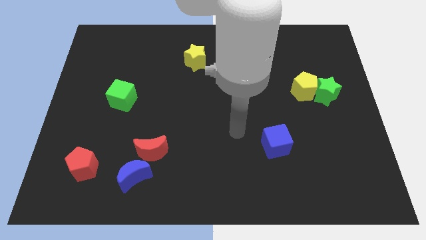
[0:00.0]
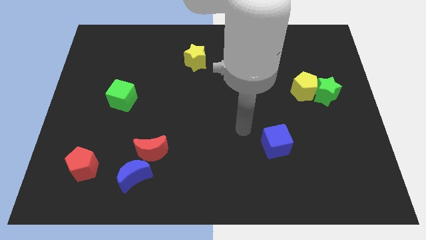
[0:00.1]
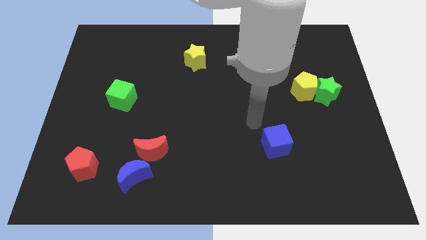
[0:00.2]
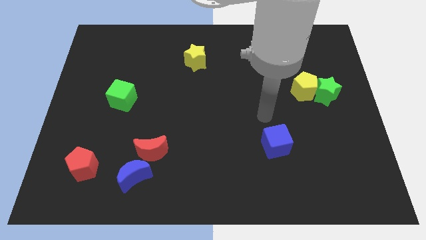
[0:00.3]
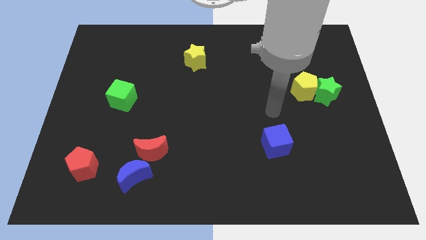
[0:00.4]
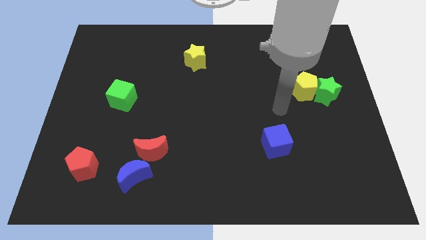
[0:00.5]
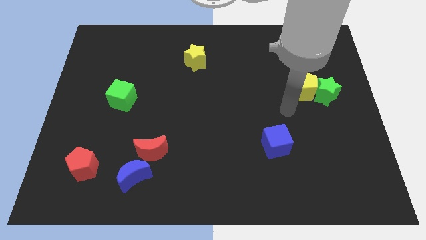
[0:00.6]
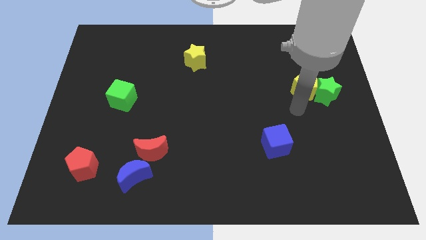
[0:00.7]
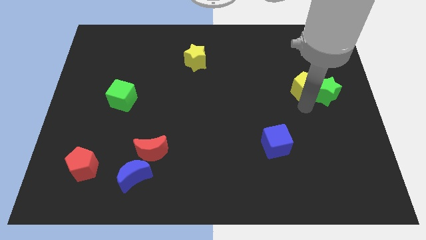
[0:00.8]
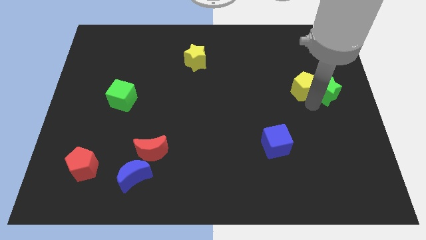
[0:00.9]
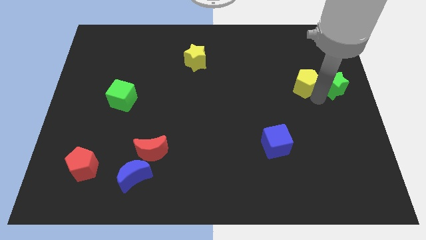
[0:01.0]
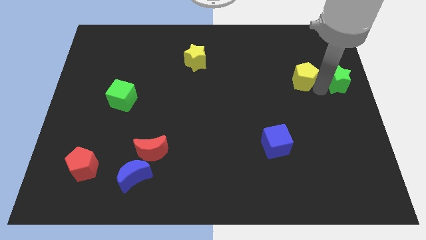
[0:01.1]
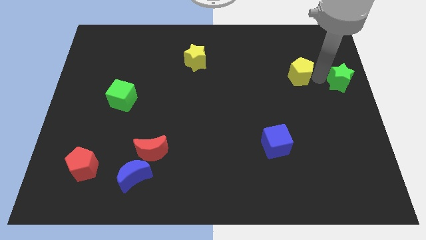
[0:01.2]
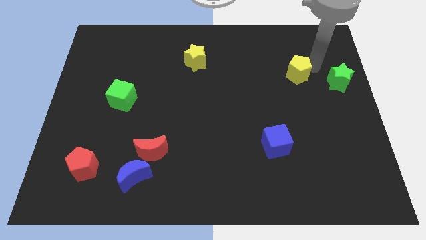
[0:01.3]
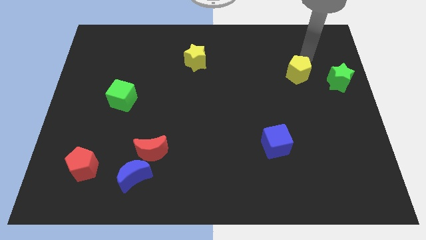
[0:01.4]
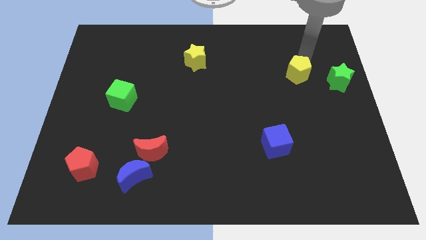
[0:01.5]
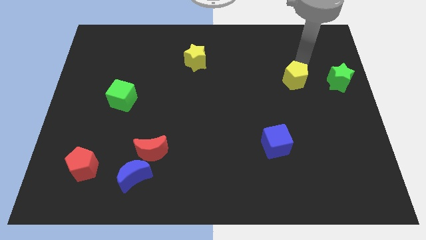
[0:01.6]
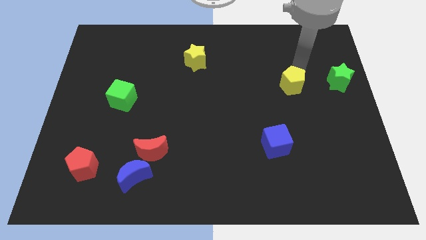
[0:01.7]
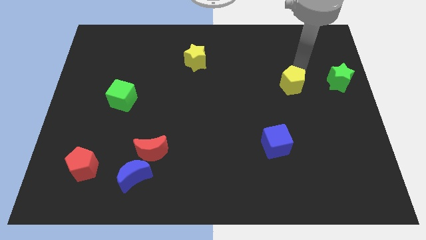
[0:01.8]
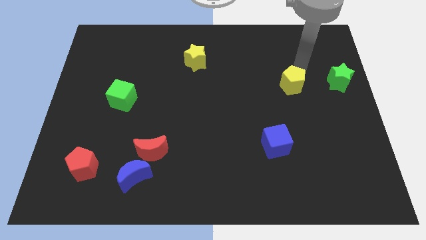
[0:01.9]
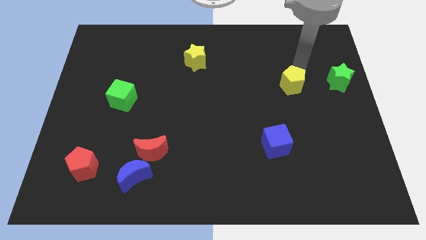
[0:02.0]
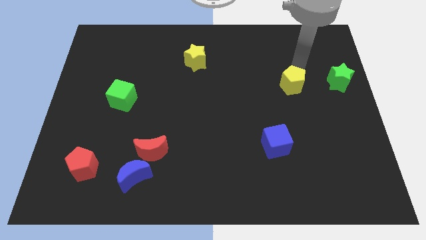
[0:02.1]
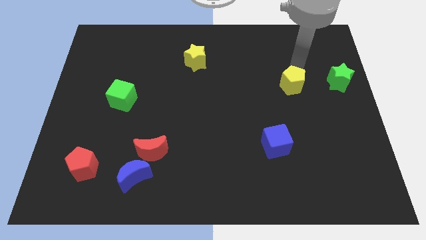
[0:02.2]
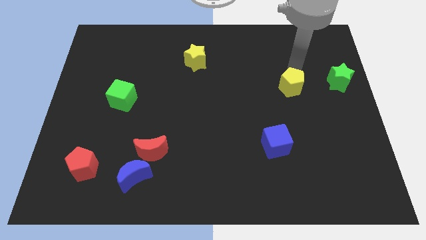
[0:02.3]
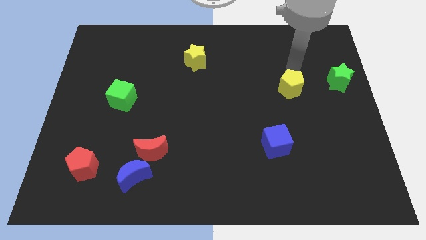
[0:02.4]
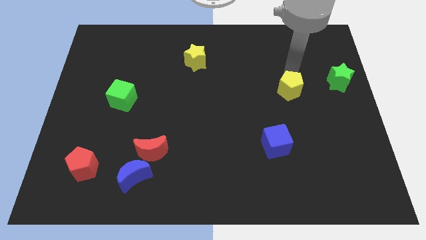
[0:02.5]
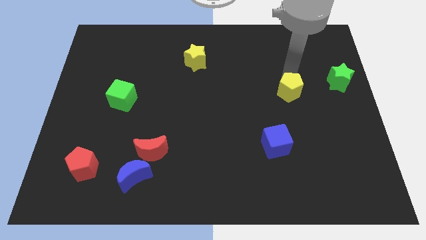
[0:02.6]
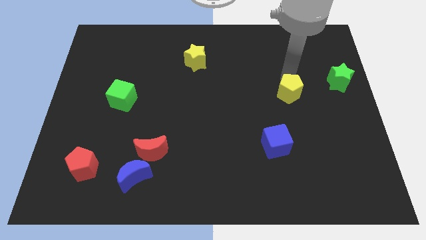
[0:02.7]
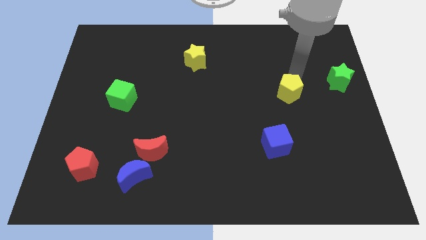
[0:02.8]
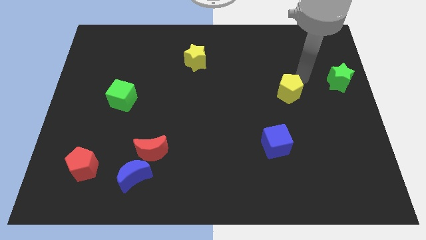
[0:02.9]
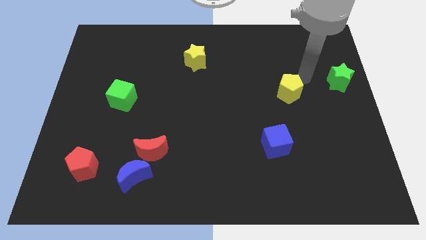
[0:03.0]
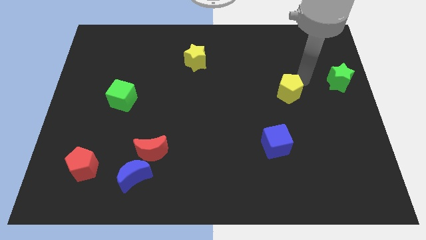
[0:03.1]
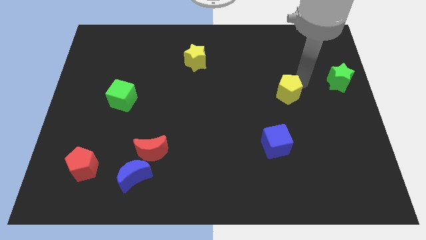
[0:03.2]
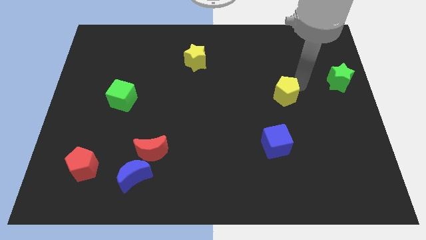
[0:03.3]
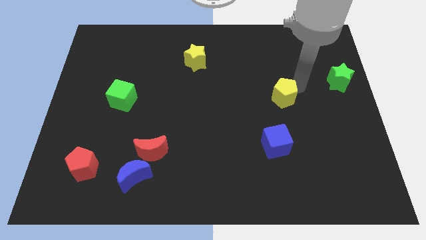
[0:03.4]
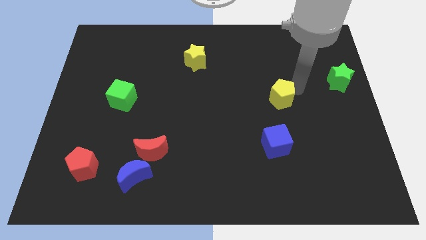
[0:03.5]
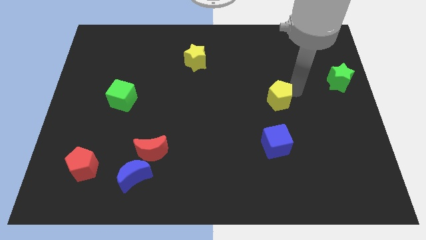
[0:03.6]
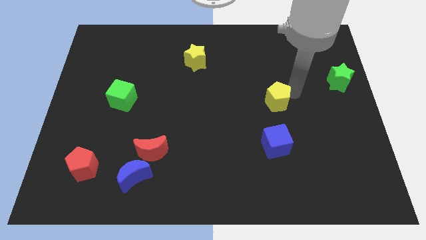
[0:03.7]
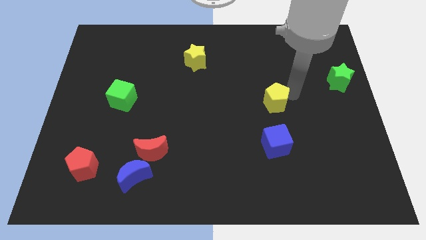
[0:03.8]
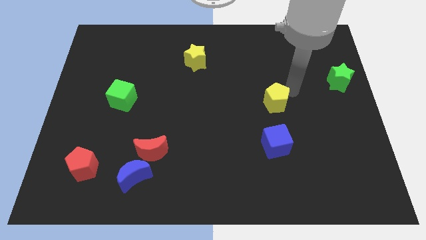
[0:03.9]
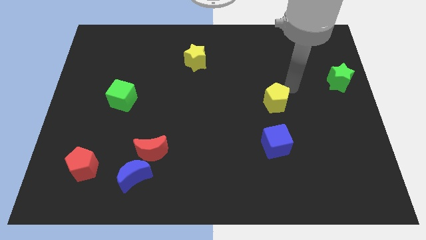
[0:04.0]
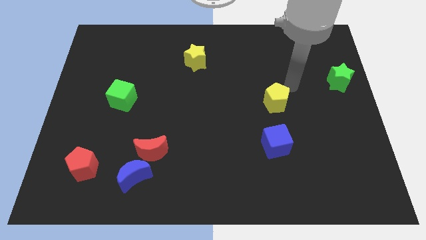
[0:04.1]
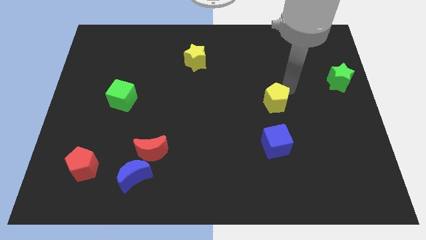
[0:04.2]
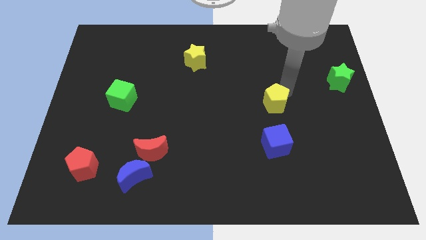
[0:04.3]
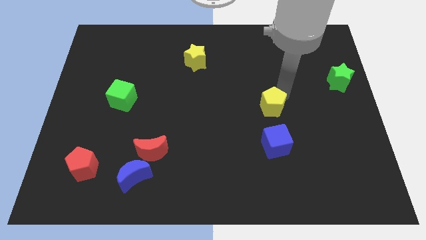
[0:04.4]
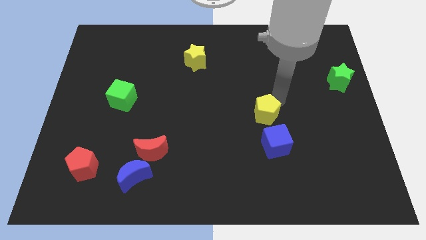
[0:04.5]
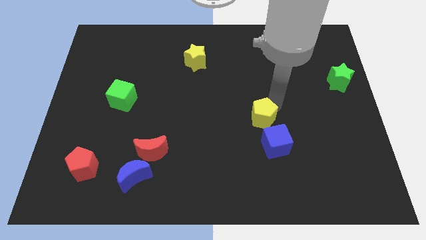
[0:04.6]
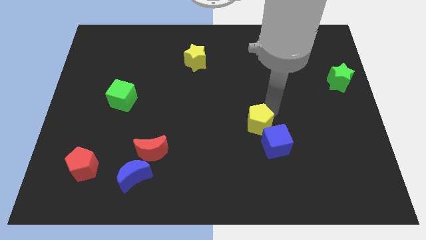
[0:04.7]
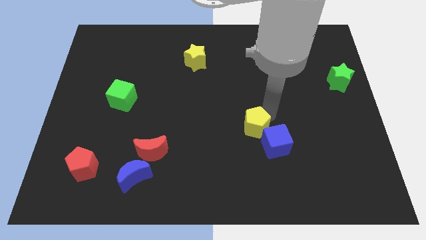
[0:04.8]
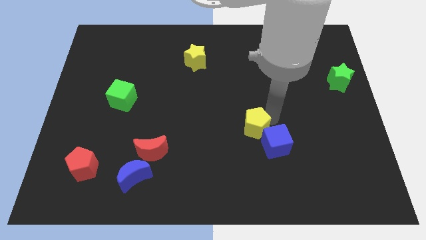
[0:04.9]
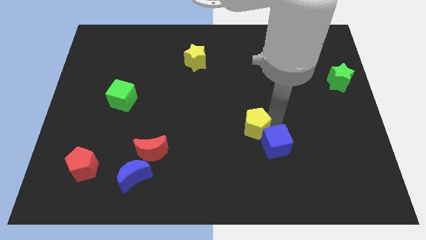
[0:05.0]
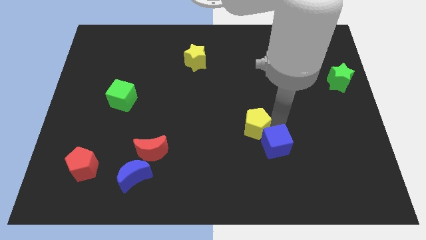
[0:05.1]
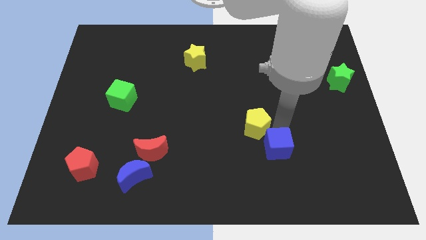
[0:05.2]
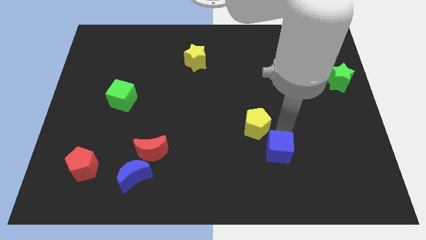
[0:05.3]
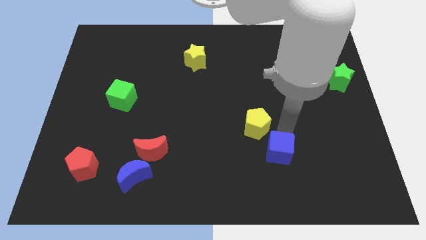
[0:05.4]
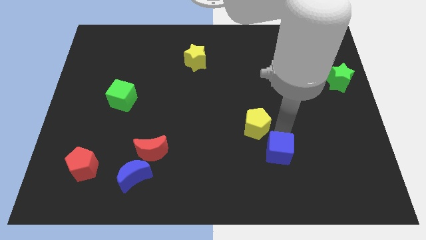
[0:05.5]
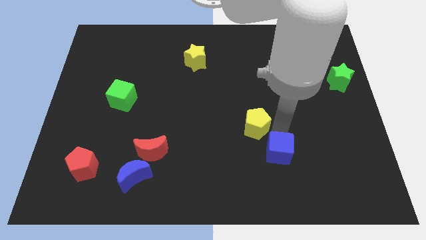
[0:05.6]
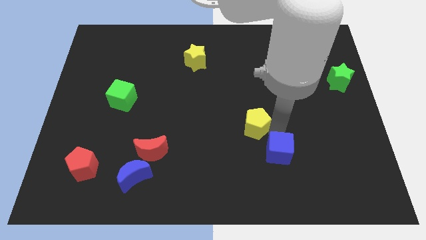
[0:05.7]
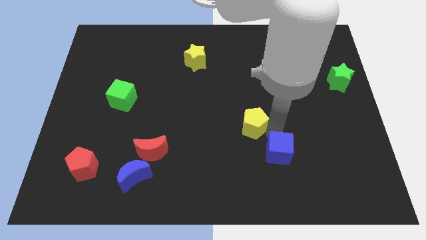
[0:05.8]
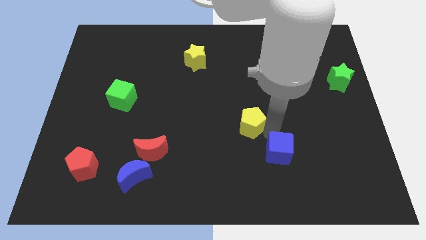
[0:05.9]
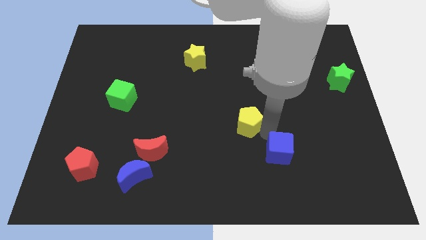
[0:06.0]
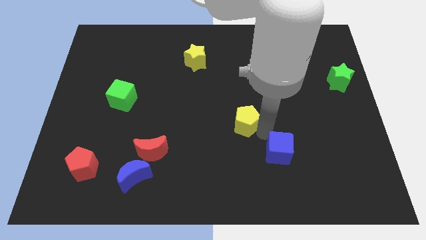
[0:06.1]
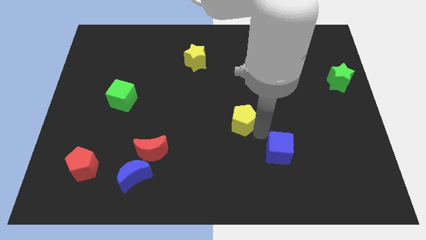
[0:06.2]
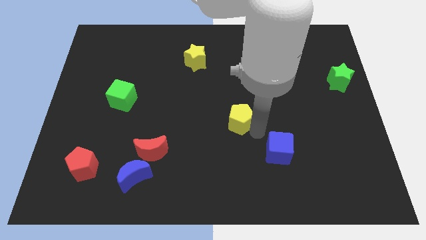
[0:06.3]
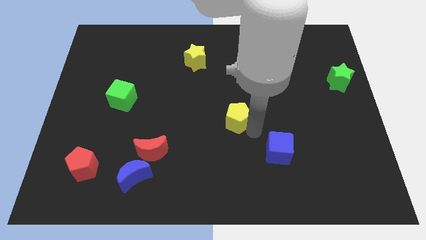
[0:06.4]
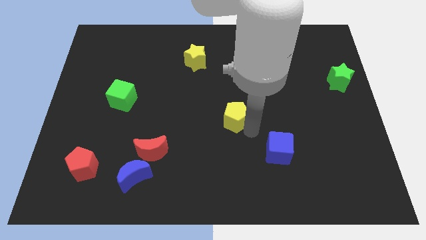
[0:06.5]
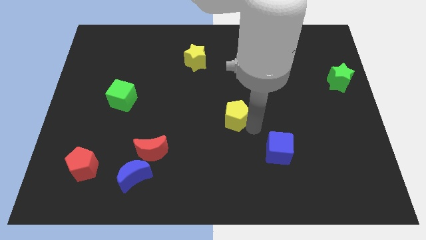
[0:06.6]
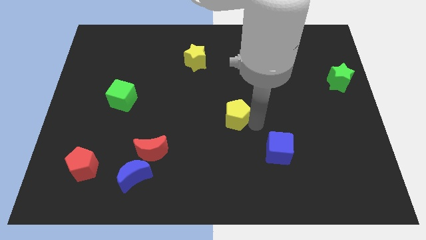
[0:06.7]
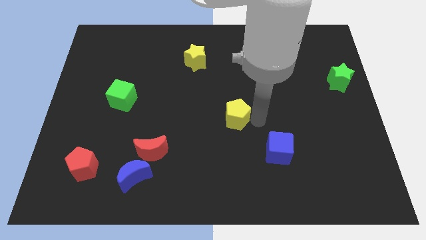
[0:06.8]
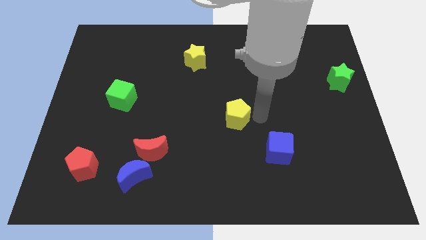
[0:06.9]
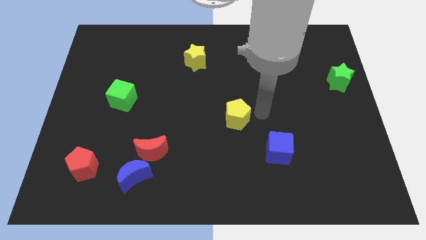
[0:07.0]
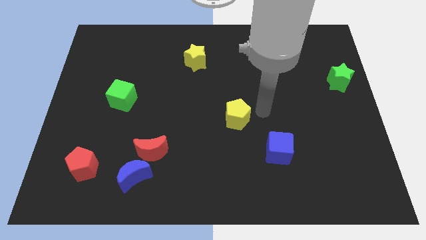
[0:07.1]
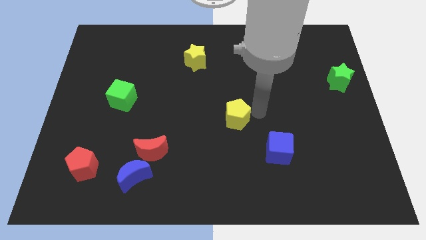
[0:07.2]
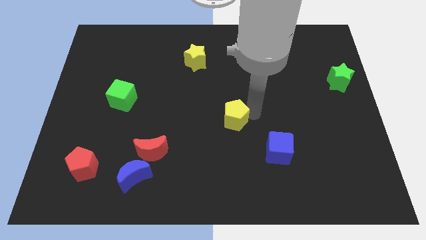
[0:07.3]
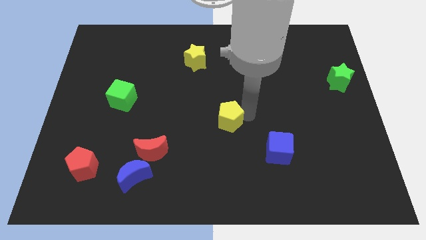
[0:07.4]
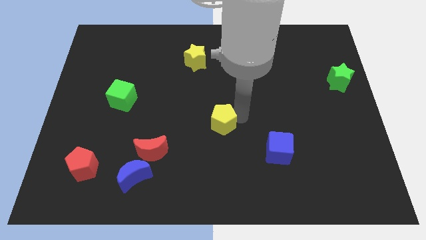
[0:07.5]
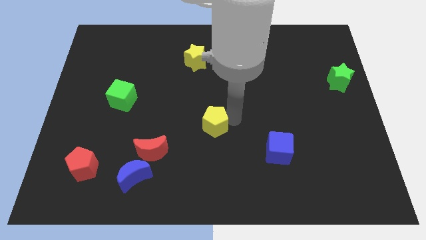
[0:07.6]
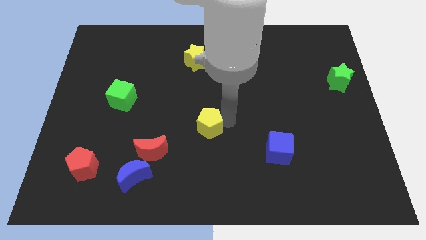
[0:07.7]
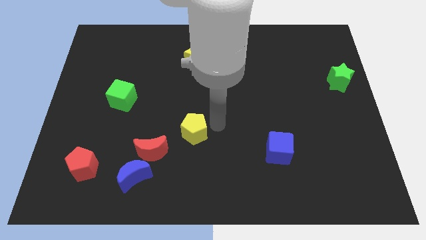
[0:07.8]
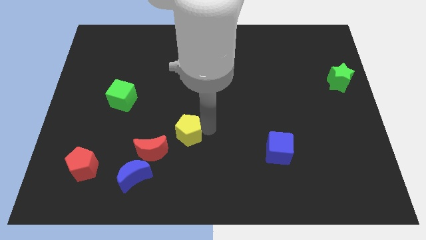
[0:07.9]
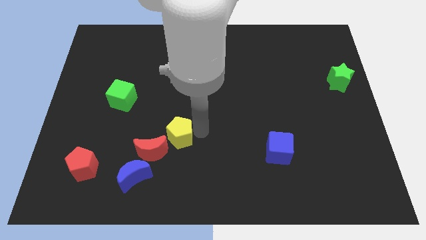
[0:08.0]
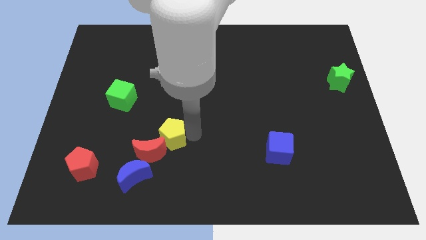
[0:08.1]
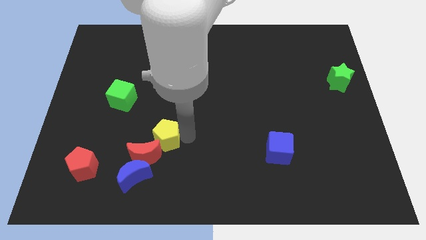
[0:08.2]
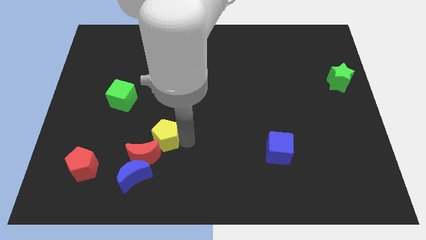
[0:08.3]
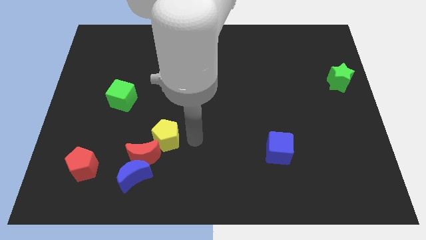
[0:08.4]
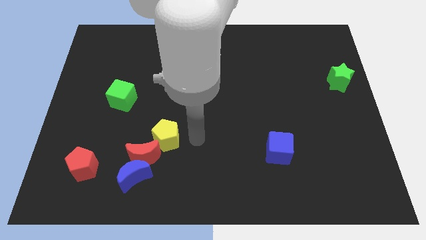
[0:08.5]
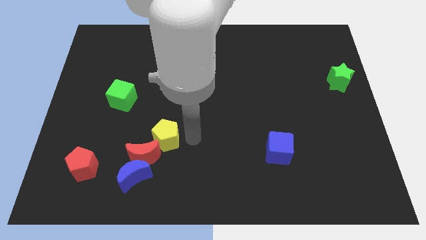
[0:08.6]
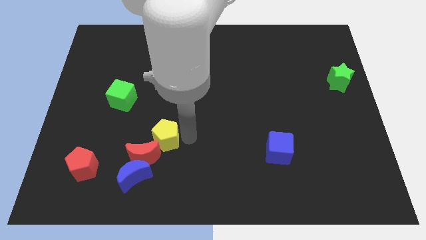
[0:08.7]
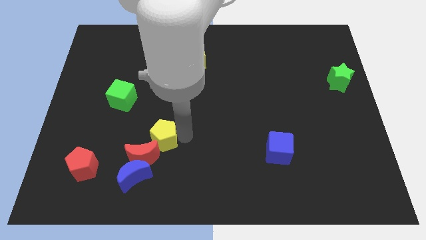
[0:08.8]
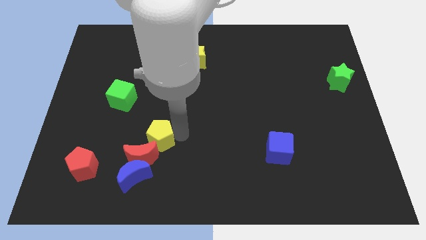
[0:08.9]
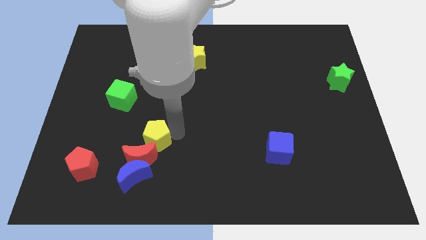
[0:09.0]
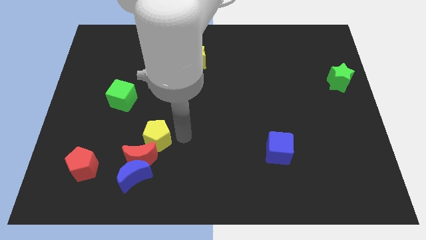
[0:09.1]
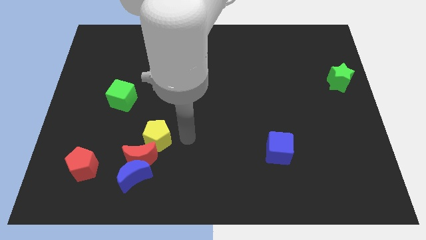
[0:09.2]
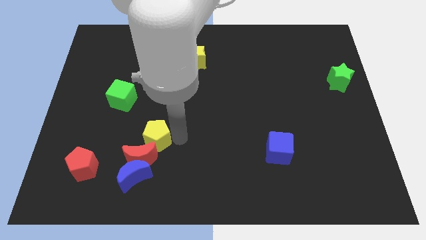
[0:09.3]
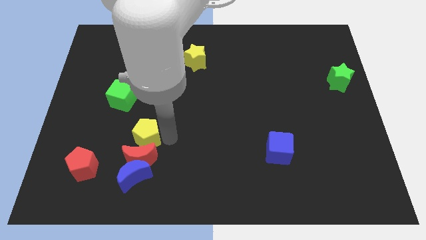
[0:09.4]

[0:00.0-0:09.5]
push the yellow pentagon to the top left side of the red moon
